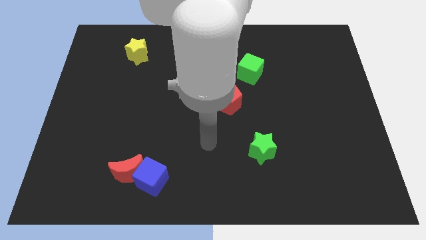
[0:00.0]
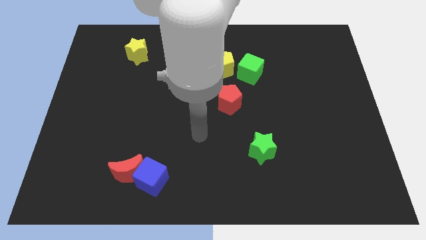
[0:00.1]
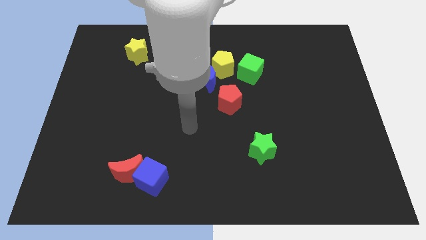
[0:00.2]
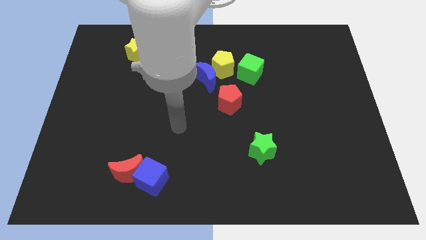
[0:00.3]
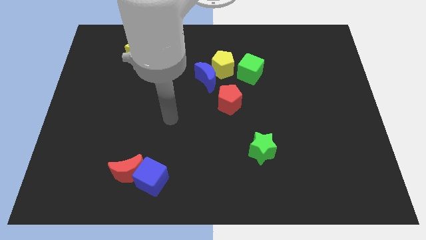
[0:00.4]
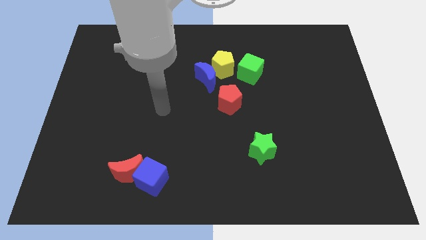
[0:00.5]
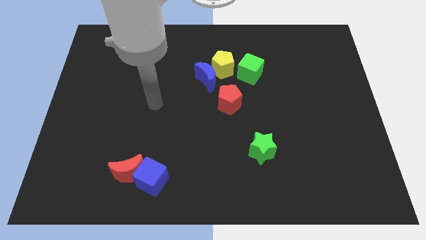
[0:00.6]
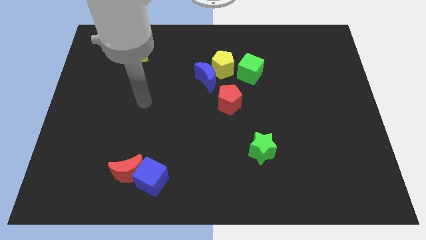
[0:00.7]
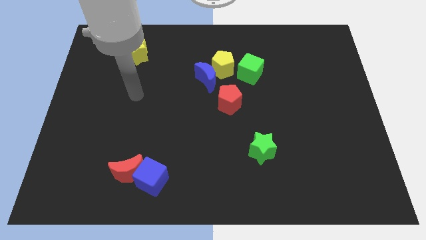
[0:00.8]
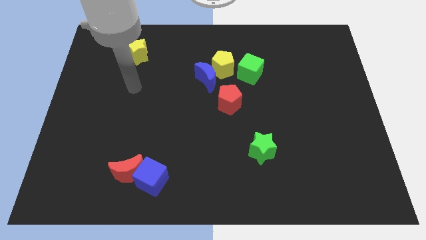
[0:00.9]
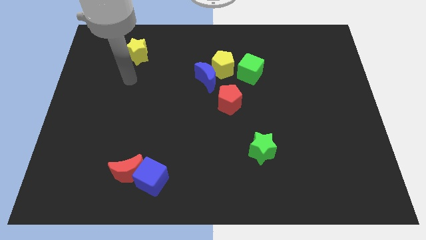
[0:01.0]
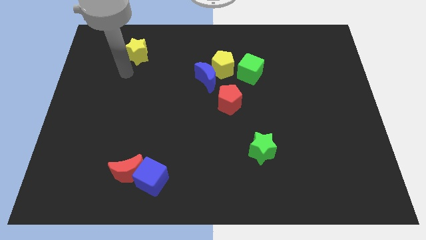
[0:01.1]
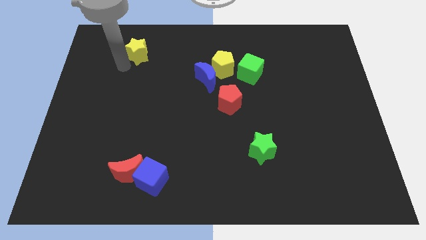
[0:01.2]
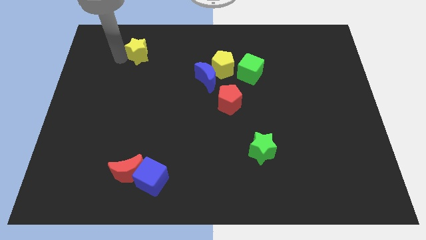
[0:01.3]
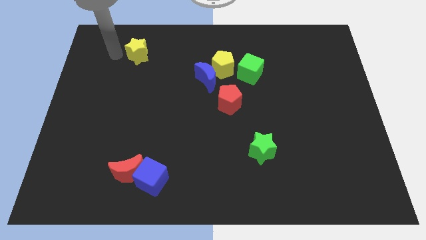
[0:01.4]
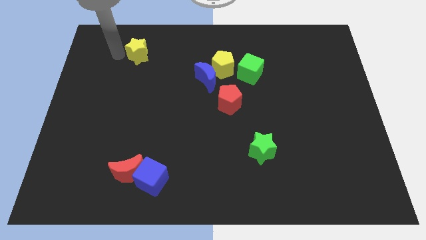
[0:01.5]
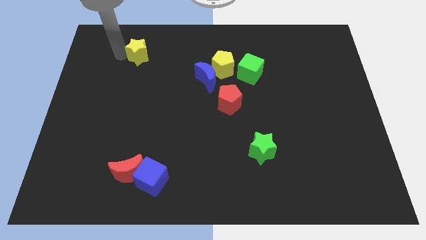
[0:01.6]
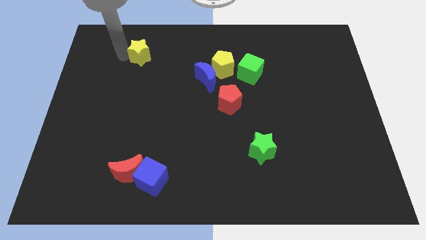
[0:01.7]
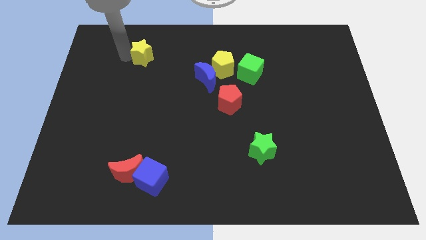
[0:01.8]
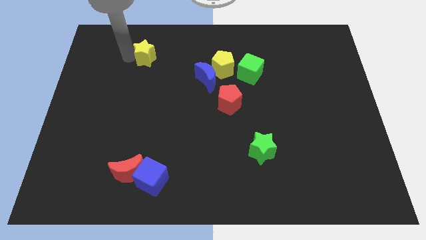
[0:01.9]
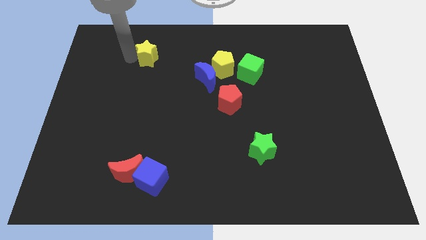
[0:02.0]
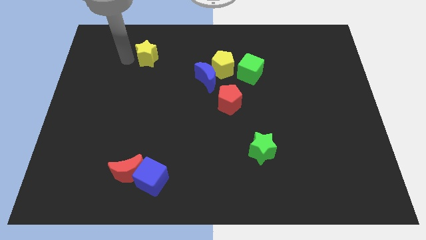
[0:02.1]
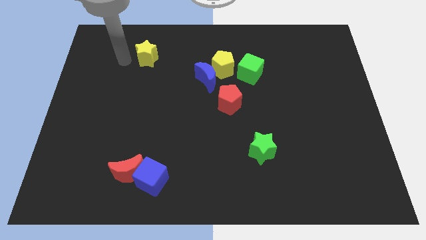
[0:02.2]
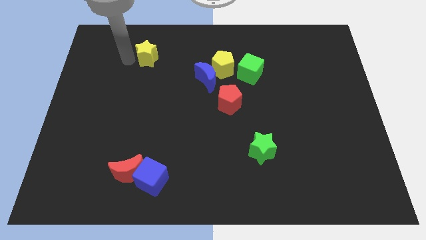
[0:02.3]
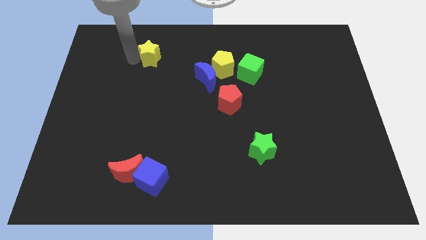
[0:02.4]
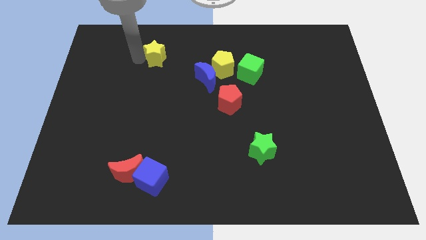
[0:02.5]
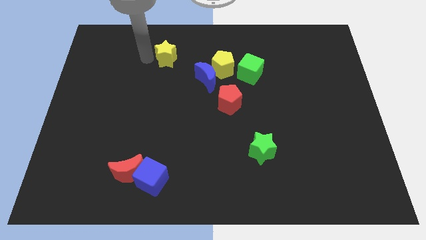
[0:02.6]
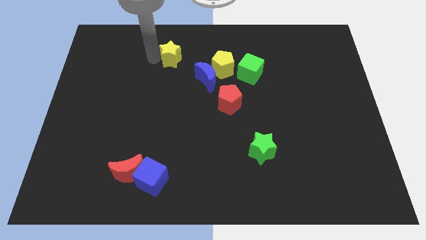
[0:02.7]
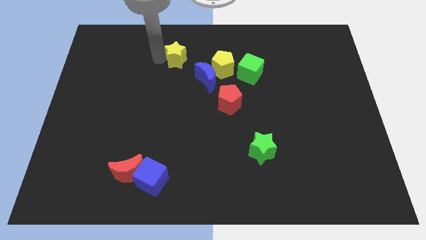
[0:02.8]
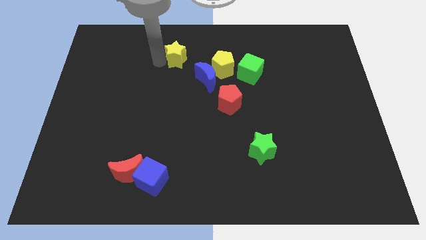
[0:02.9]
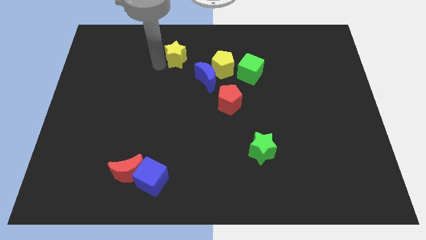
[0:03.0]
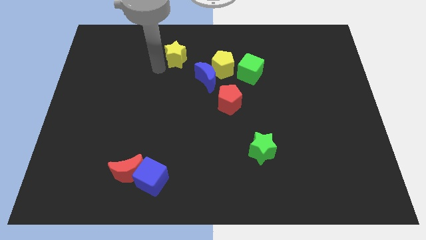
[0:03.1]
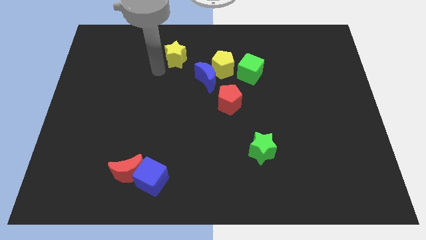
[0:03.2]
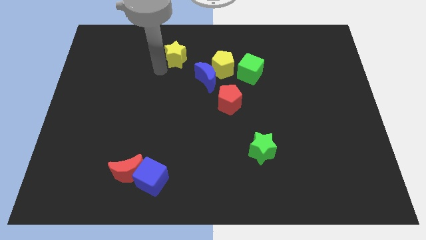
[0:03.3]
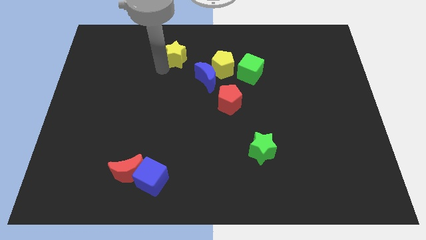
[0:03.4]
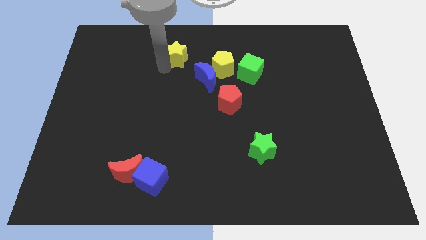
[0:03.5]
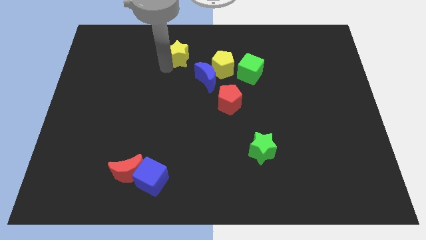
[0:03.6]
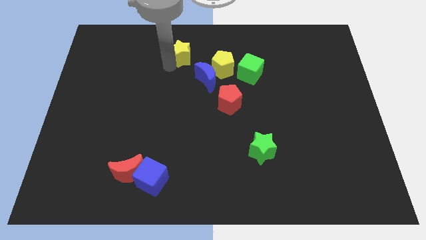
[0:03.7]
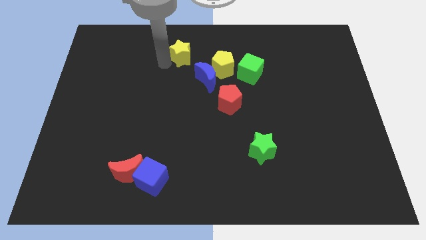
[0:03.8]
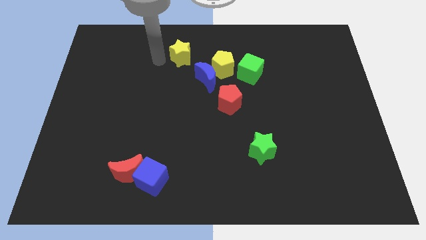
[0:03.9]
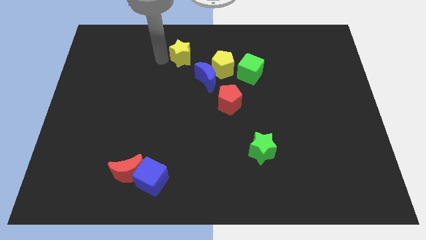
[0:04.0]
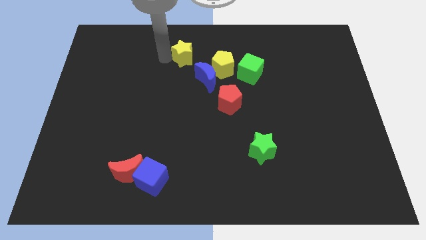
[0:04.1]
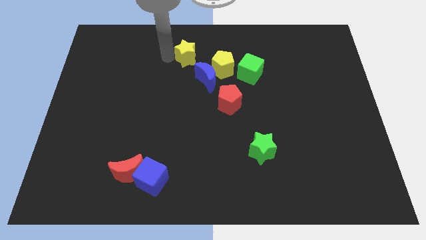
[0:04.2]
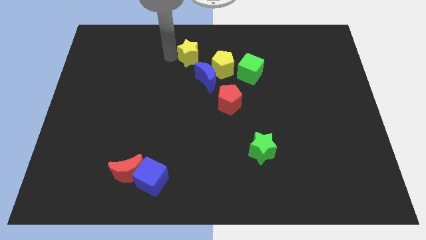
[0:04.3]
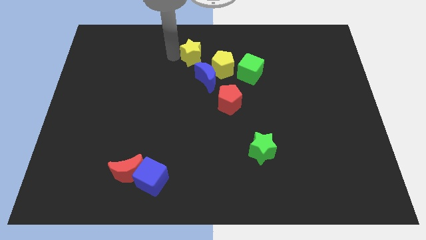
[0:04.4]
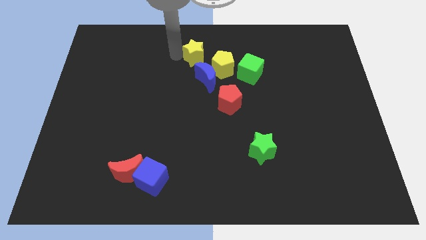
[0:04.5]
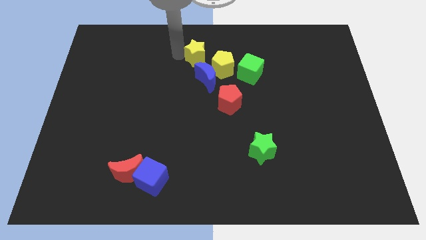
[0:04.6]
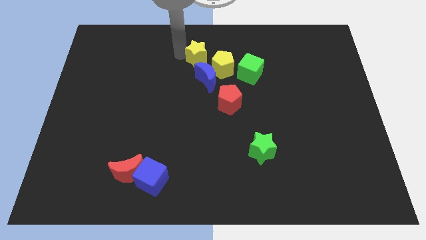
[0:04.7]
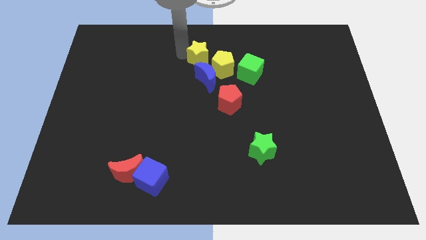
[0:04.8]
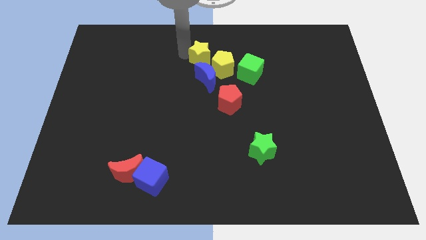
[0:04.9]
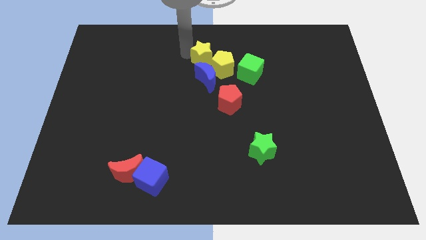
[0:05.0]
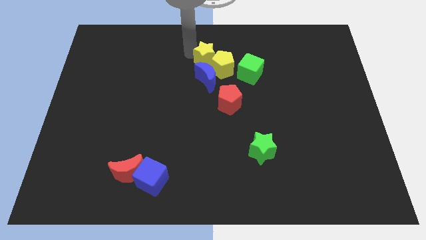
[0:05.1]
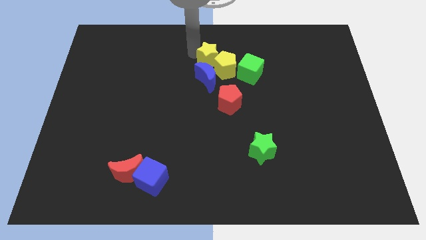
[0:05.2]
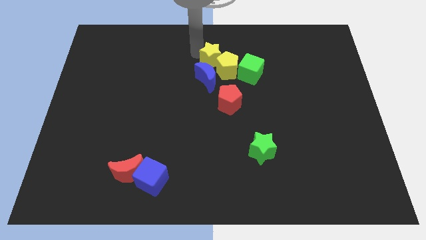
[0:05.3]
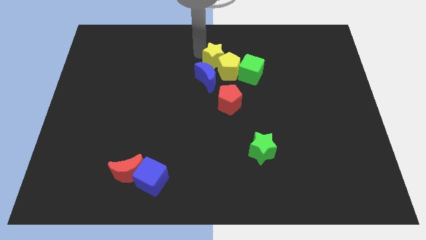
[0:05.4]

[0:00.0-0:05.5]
slide the yellow star right

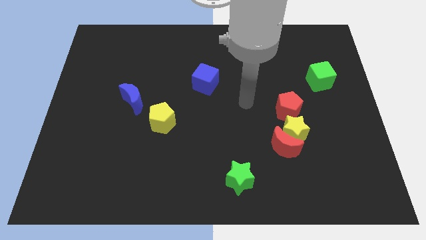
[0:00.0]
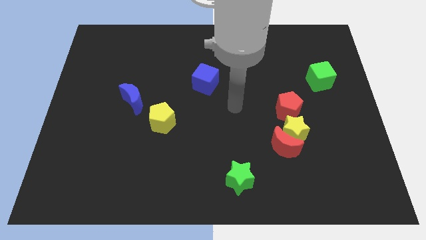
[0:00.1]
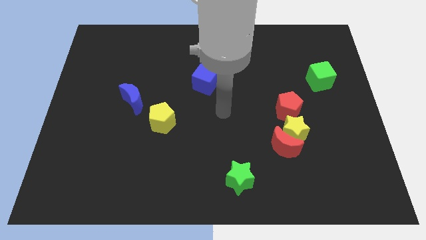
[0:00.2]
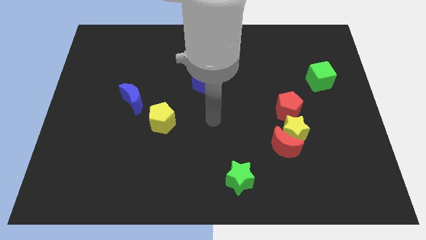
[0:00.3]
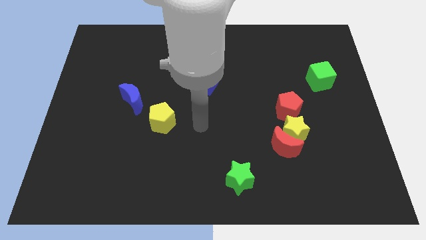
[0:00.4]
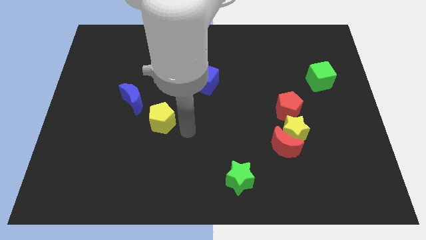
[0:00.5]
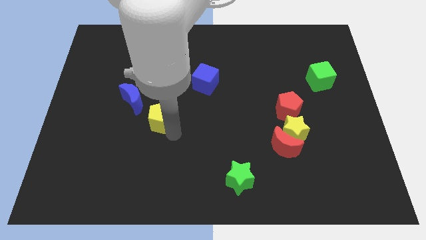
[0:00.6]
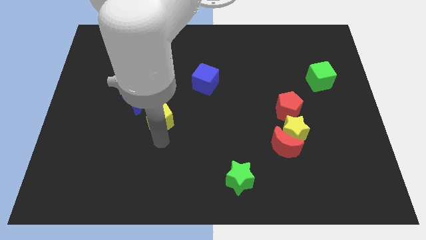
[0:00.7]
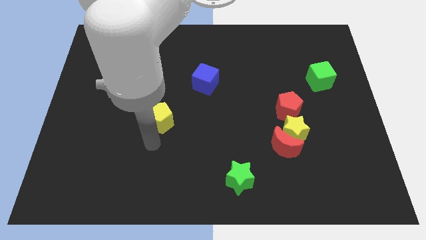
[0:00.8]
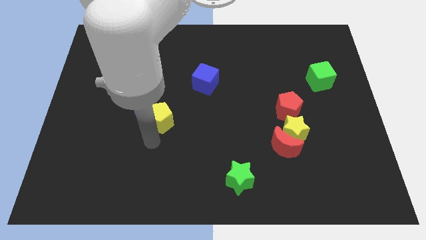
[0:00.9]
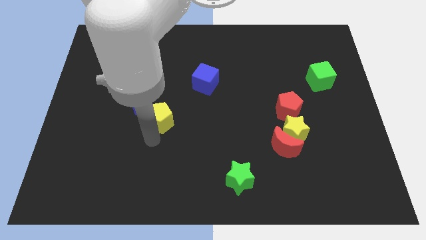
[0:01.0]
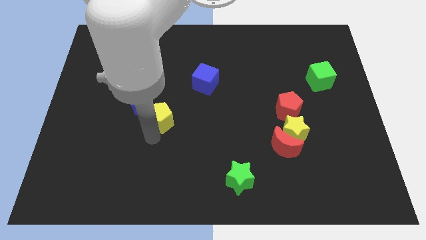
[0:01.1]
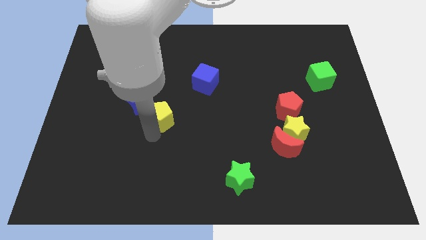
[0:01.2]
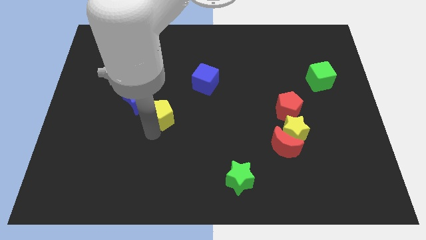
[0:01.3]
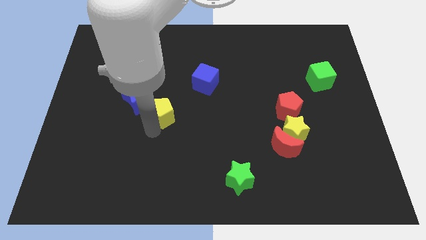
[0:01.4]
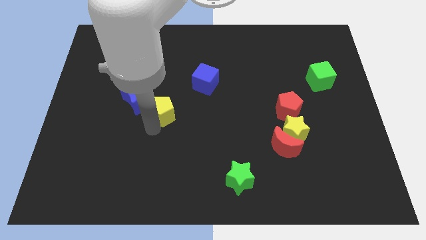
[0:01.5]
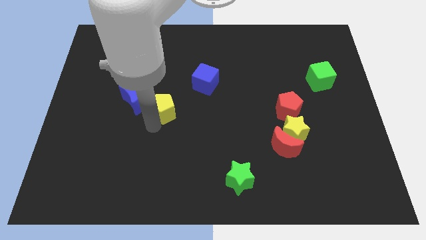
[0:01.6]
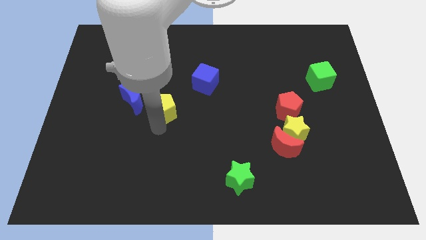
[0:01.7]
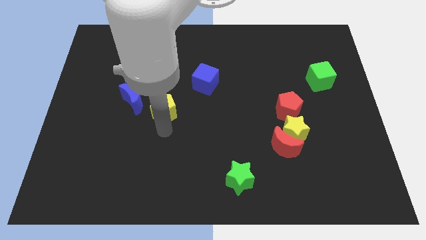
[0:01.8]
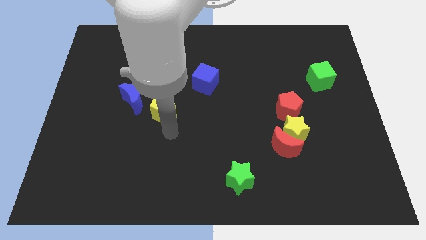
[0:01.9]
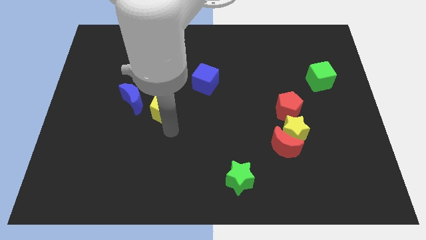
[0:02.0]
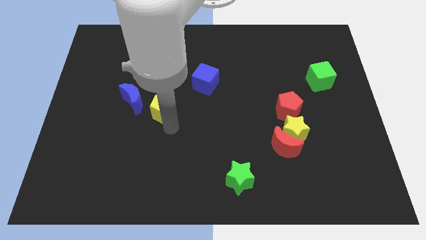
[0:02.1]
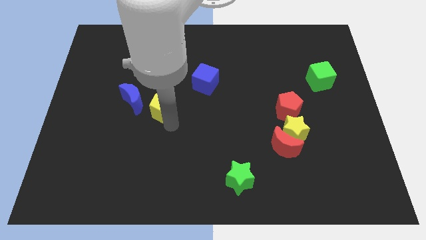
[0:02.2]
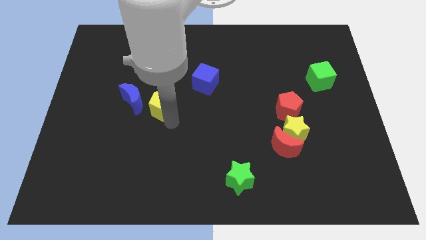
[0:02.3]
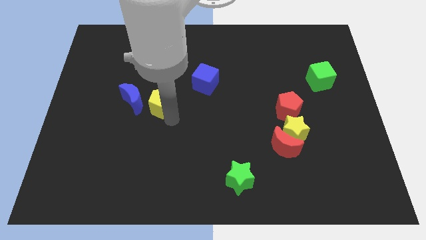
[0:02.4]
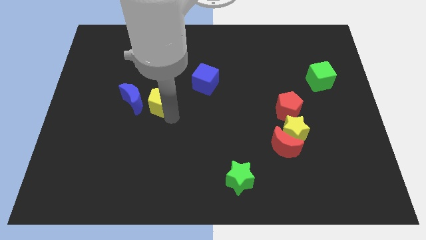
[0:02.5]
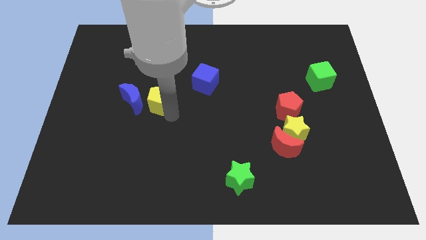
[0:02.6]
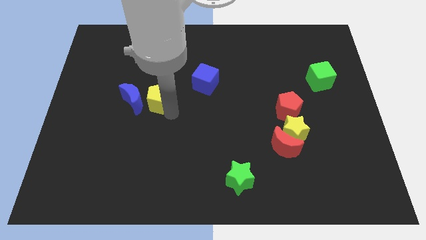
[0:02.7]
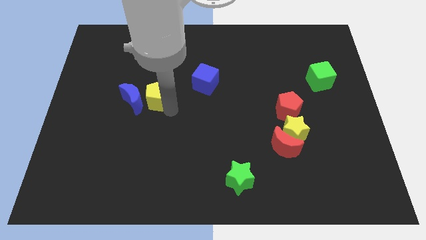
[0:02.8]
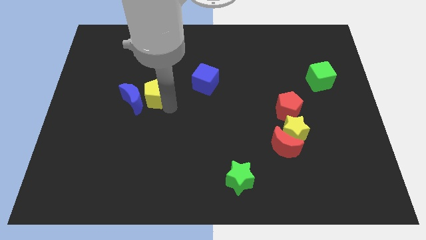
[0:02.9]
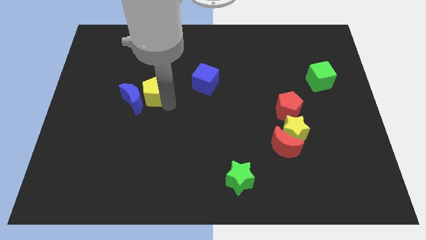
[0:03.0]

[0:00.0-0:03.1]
slightly slide the yellow pentagon up and then to the left
